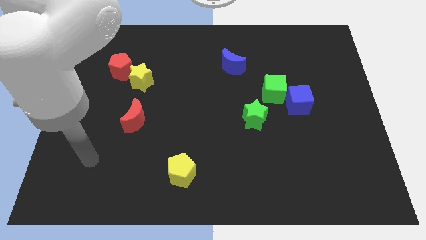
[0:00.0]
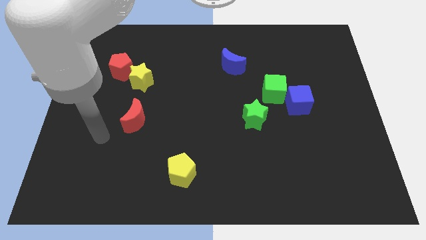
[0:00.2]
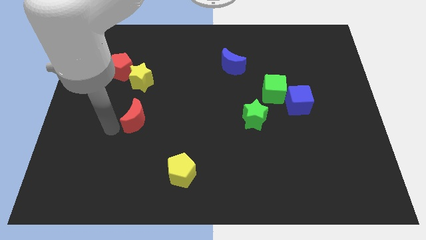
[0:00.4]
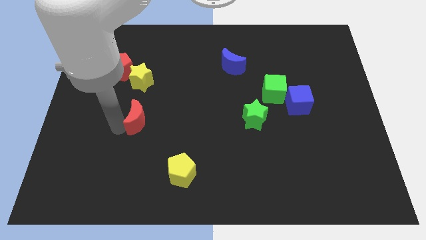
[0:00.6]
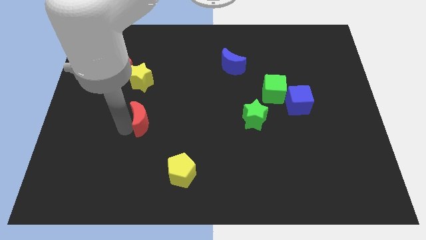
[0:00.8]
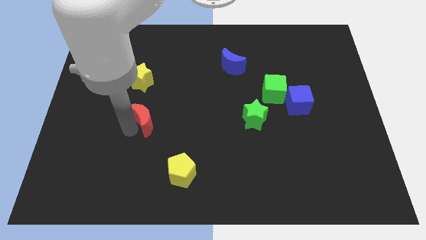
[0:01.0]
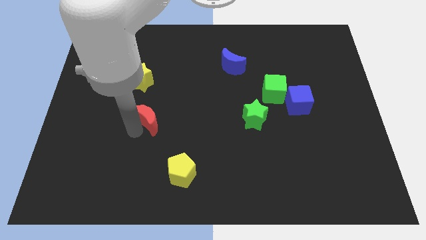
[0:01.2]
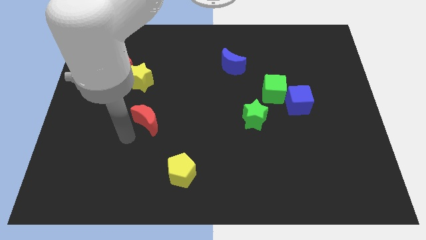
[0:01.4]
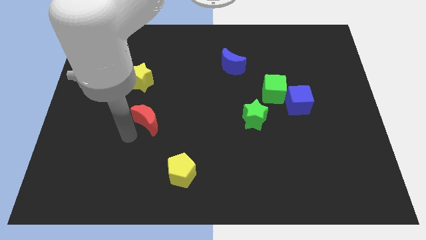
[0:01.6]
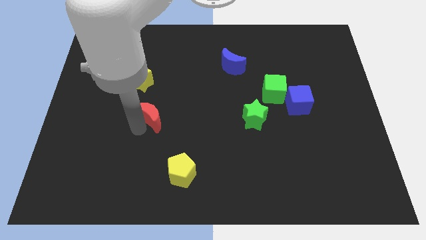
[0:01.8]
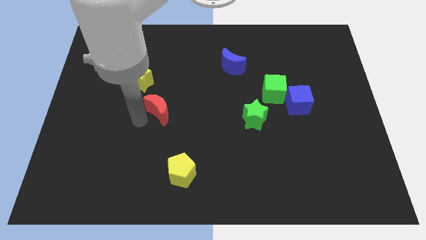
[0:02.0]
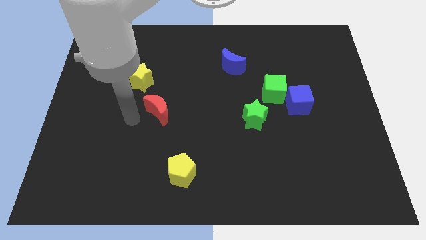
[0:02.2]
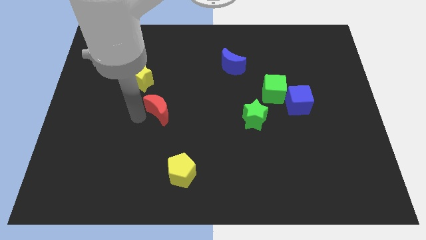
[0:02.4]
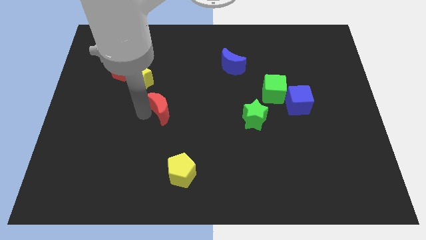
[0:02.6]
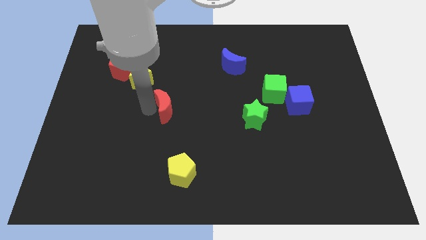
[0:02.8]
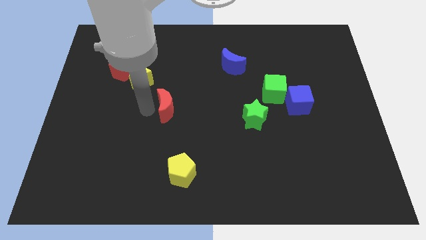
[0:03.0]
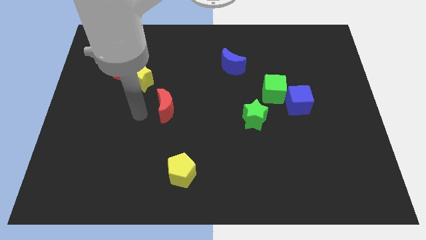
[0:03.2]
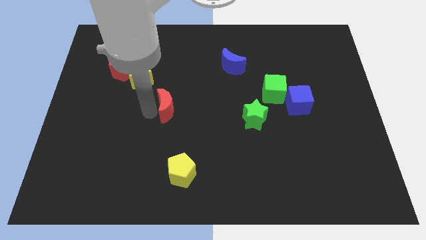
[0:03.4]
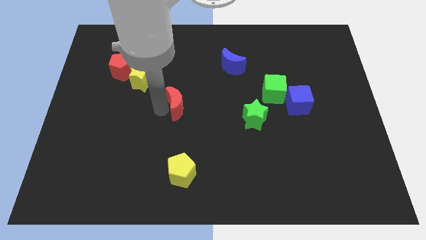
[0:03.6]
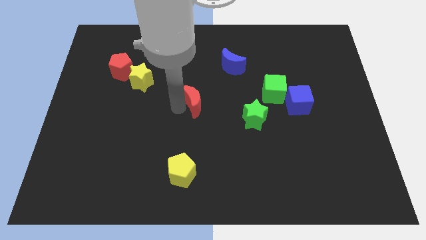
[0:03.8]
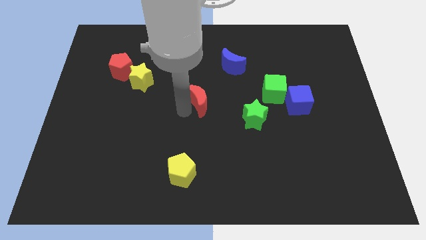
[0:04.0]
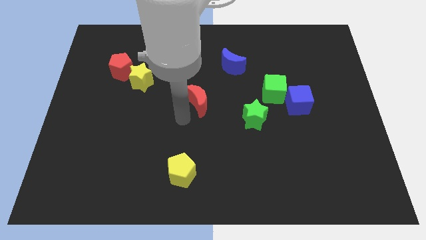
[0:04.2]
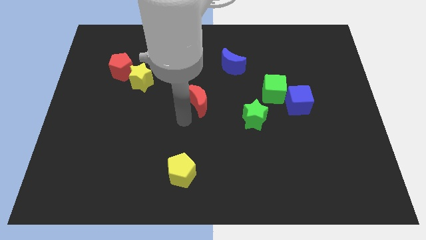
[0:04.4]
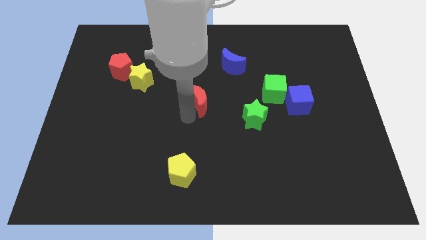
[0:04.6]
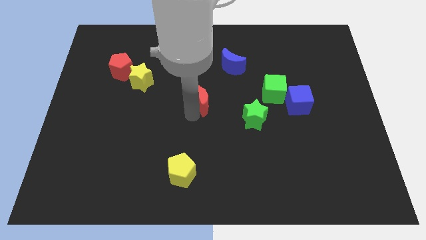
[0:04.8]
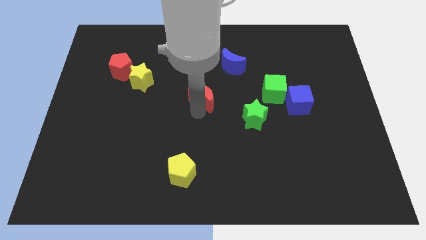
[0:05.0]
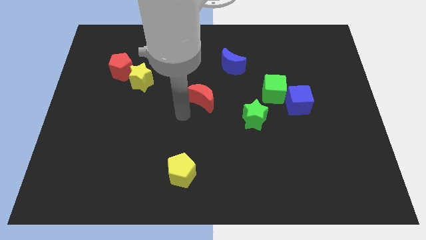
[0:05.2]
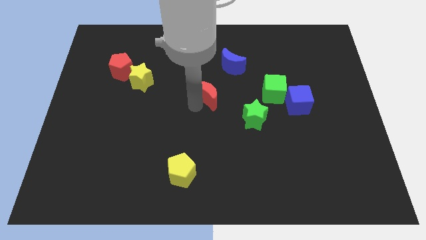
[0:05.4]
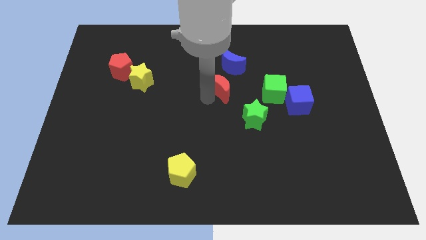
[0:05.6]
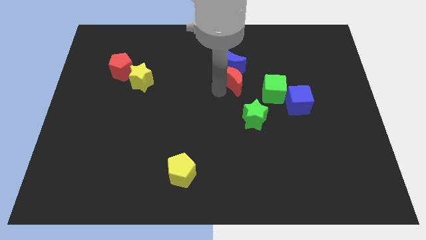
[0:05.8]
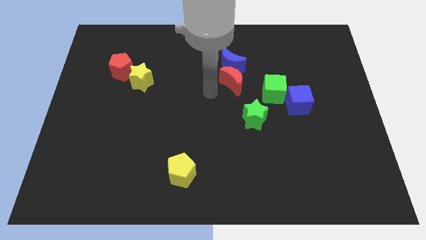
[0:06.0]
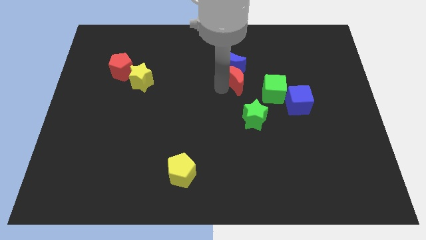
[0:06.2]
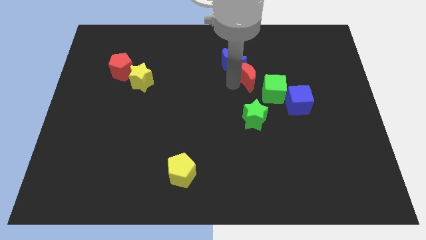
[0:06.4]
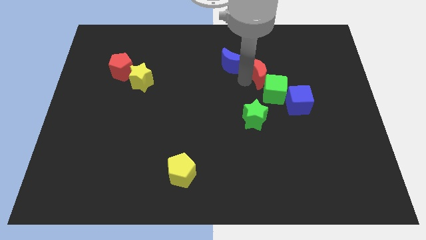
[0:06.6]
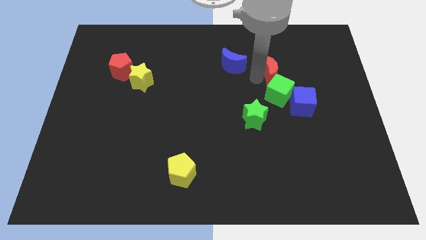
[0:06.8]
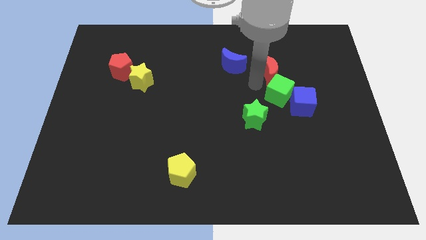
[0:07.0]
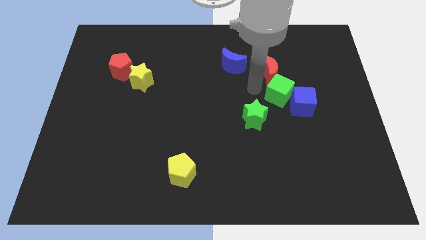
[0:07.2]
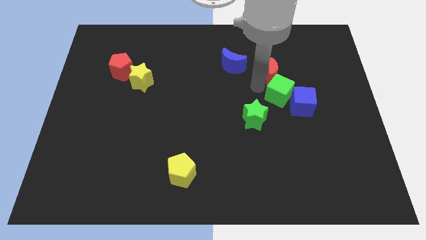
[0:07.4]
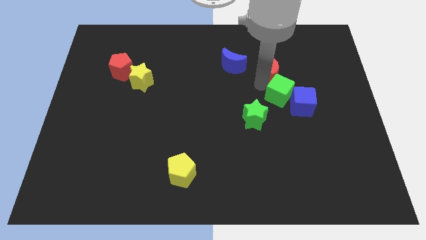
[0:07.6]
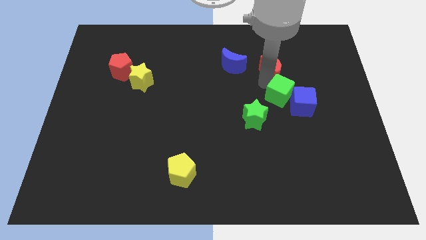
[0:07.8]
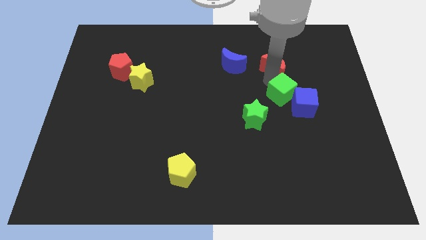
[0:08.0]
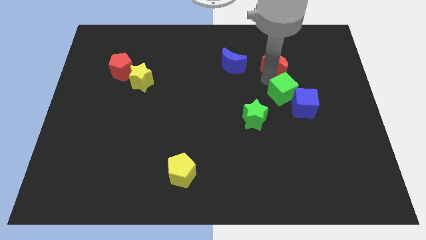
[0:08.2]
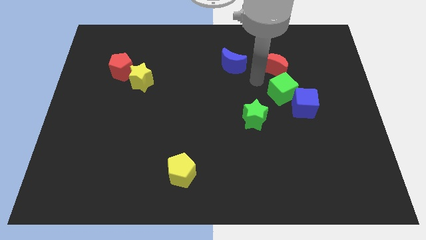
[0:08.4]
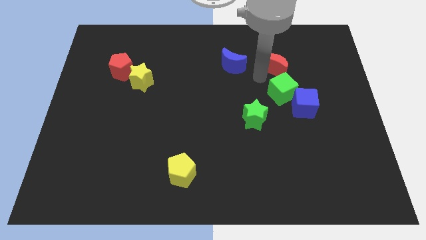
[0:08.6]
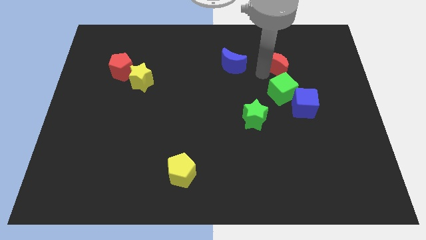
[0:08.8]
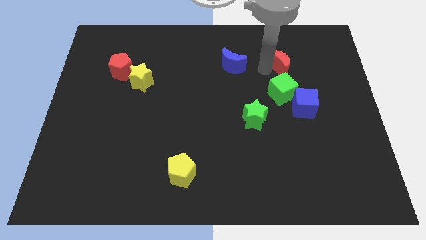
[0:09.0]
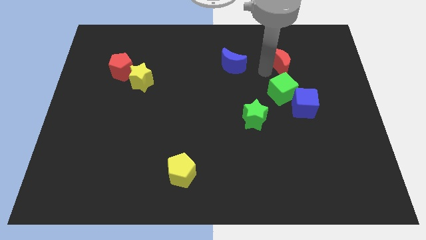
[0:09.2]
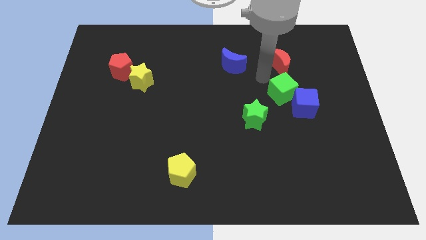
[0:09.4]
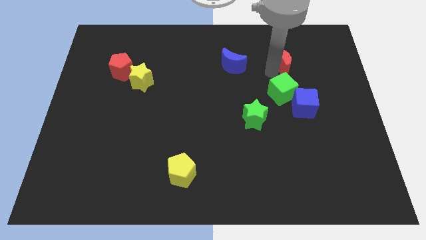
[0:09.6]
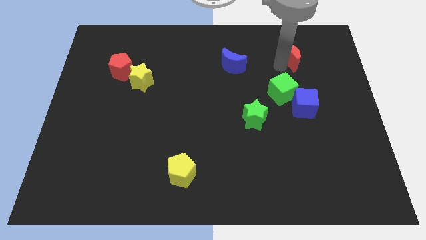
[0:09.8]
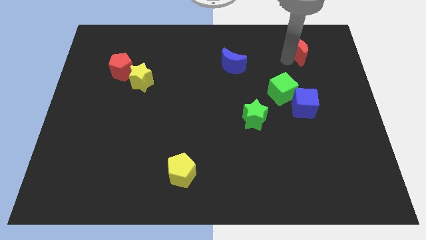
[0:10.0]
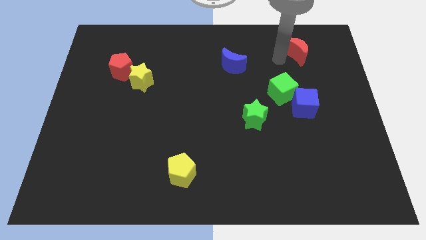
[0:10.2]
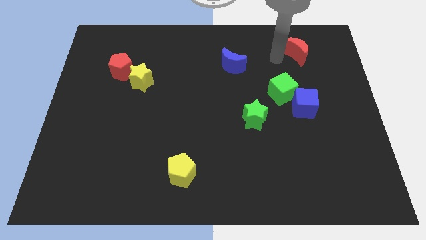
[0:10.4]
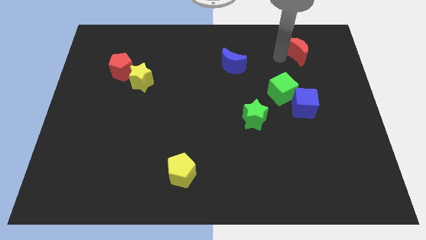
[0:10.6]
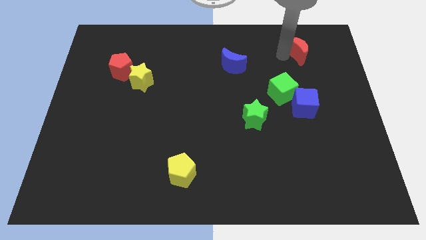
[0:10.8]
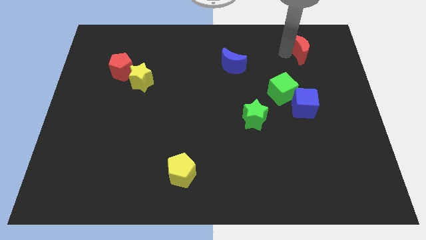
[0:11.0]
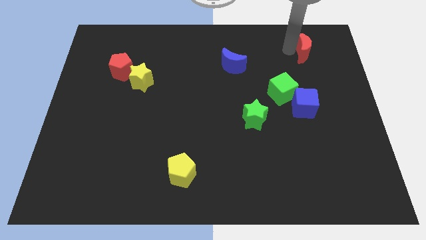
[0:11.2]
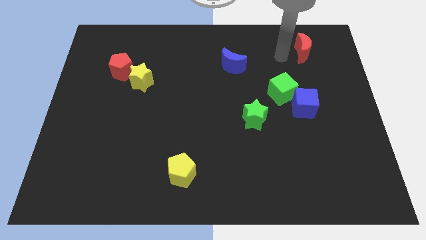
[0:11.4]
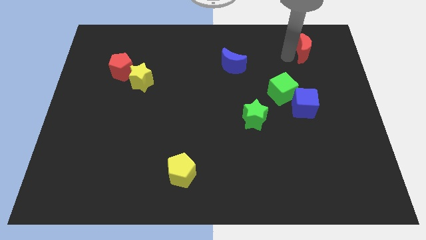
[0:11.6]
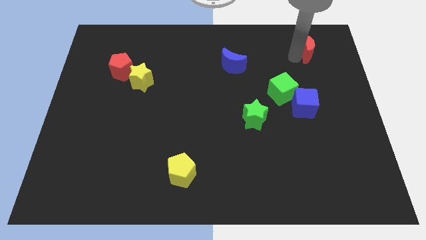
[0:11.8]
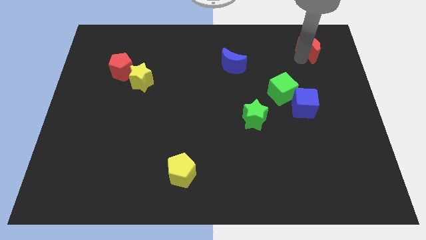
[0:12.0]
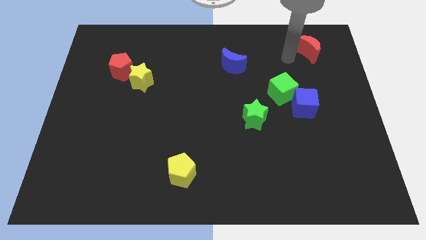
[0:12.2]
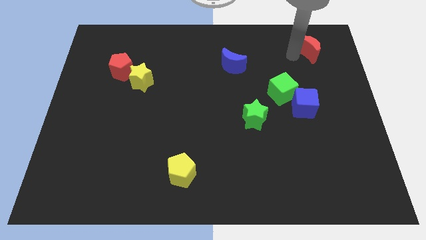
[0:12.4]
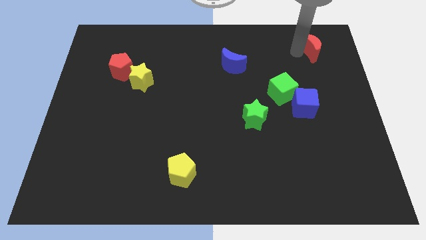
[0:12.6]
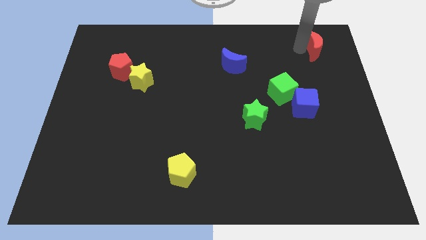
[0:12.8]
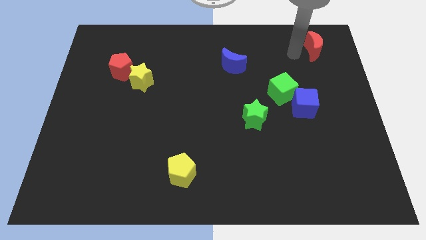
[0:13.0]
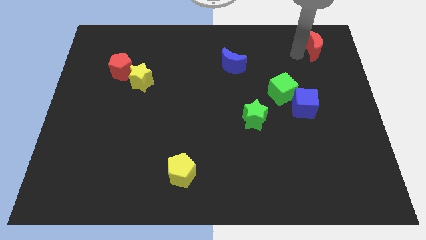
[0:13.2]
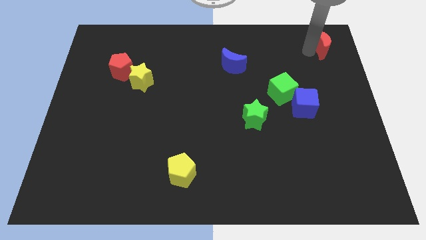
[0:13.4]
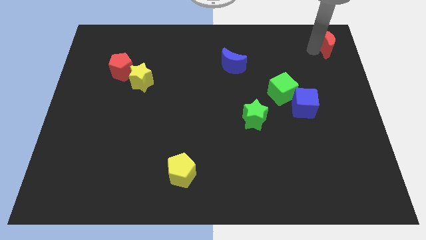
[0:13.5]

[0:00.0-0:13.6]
move the red moon to the top right of the board

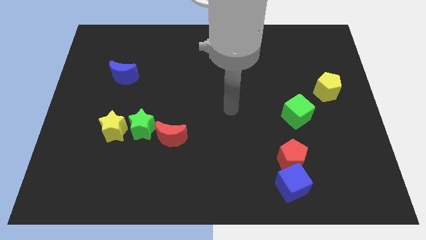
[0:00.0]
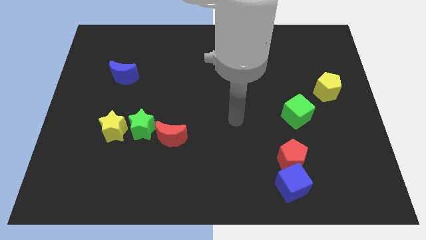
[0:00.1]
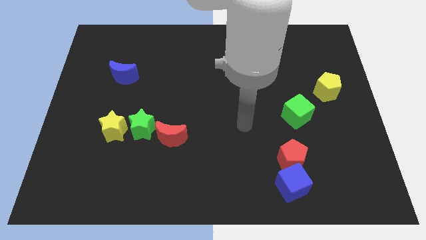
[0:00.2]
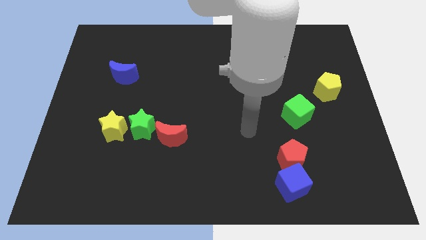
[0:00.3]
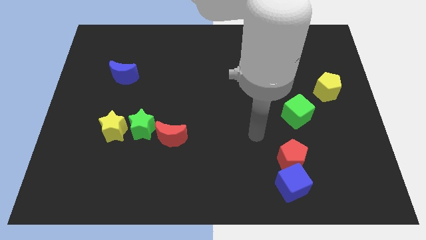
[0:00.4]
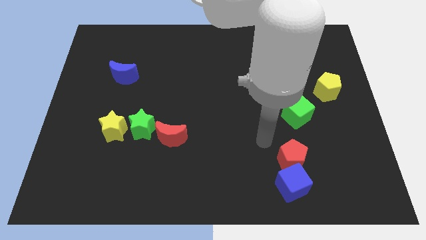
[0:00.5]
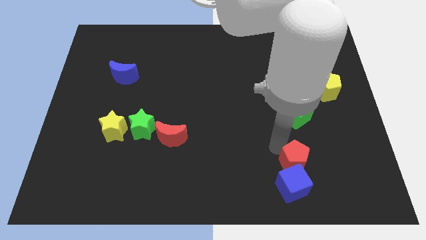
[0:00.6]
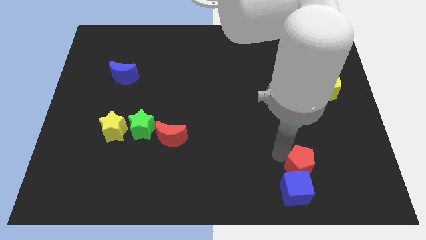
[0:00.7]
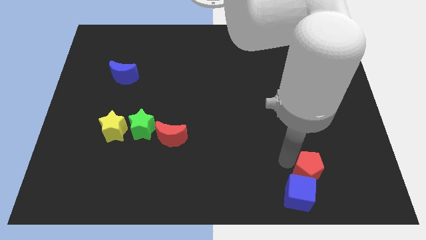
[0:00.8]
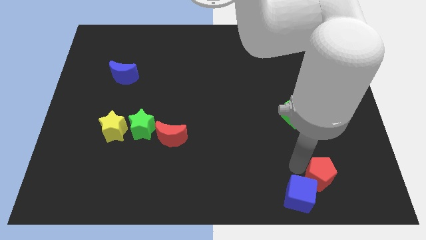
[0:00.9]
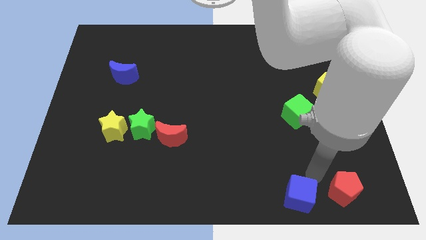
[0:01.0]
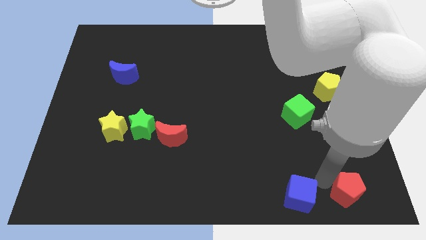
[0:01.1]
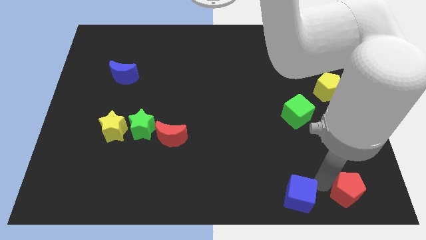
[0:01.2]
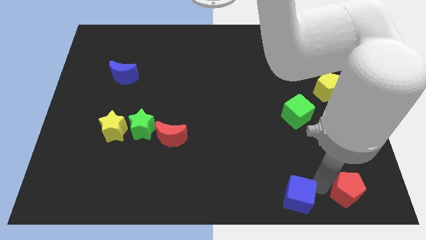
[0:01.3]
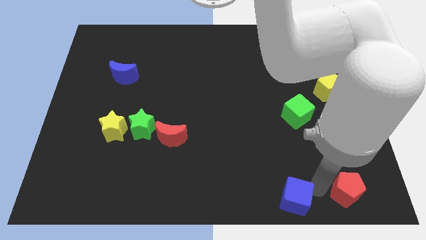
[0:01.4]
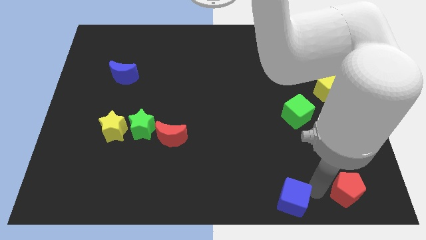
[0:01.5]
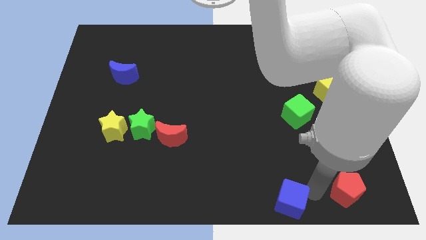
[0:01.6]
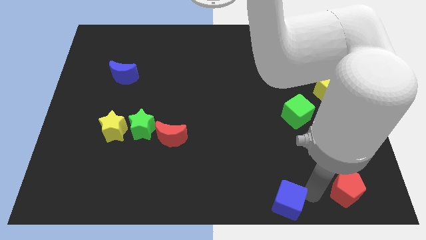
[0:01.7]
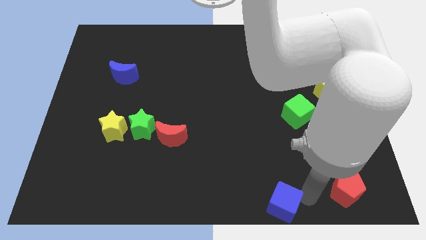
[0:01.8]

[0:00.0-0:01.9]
move the blue cube to the bottom side
